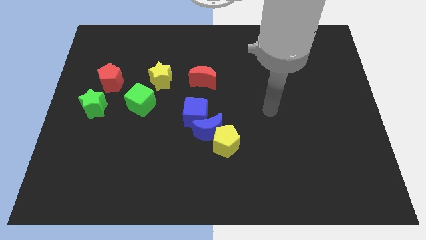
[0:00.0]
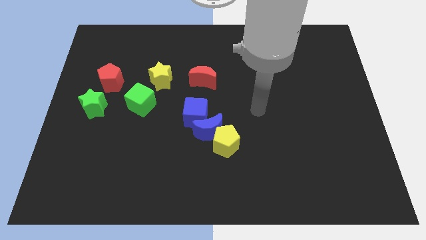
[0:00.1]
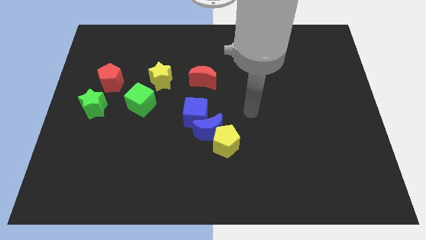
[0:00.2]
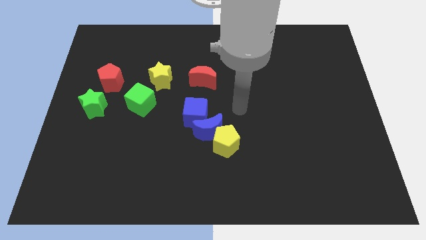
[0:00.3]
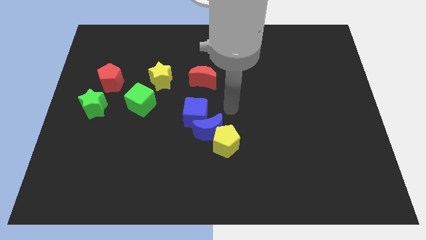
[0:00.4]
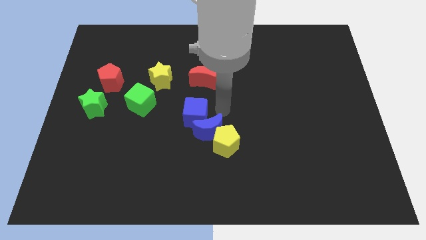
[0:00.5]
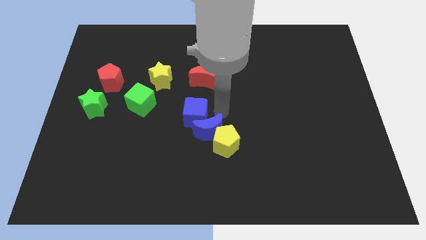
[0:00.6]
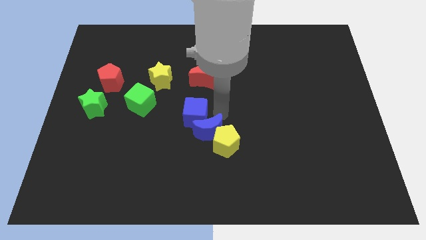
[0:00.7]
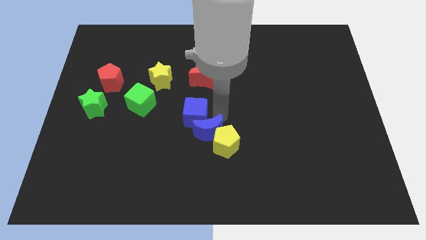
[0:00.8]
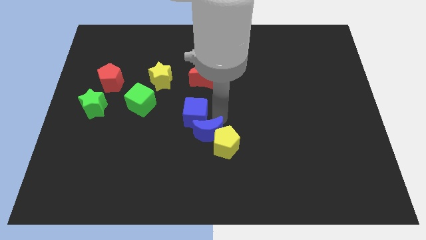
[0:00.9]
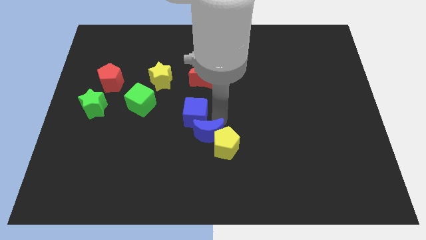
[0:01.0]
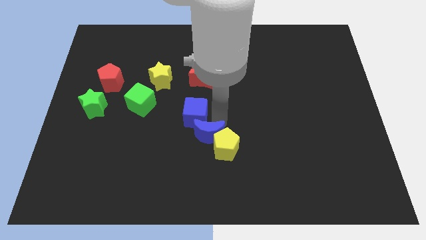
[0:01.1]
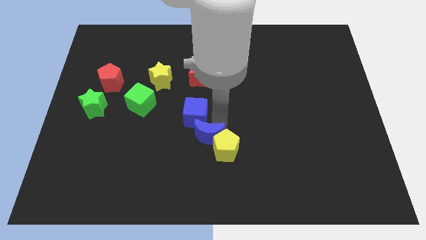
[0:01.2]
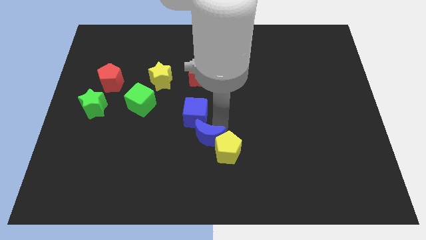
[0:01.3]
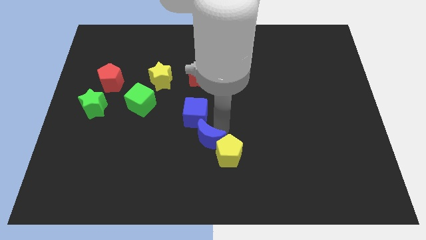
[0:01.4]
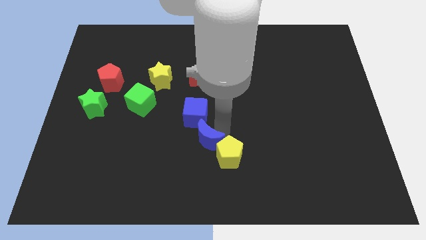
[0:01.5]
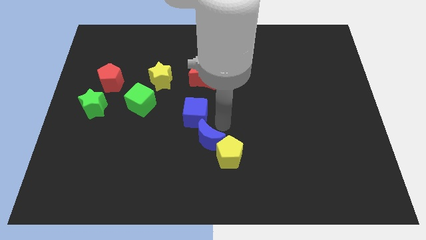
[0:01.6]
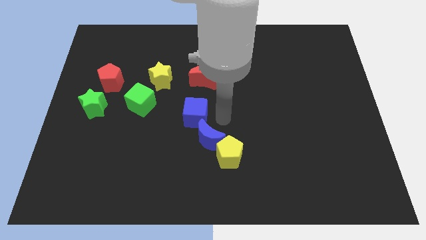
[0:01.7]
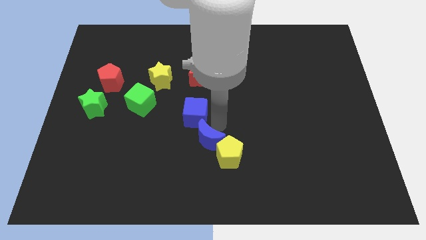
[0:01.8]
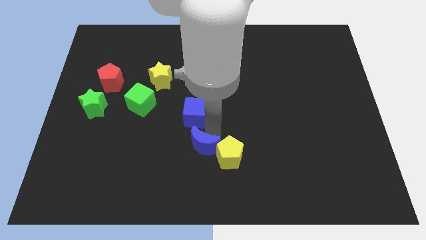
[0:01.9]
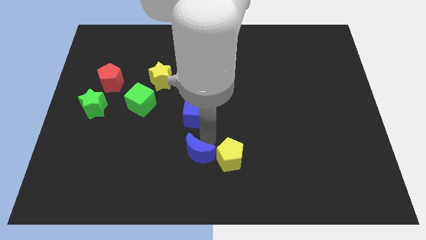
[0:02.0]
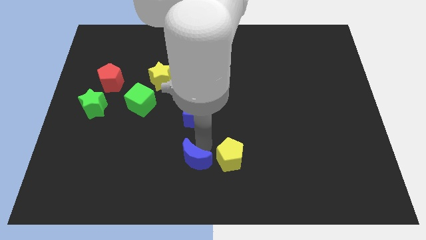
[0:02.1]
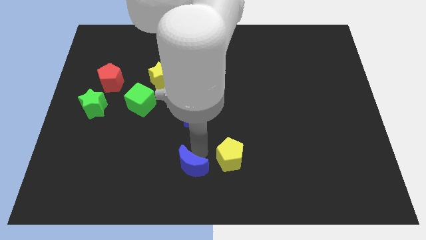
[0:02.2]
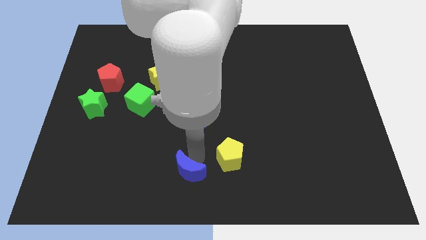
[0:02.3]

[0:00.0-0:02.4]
move the blue moon away from the yellow pentagon and blue cube

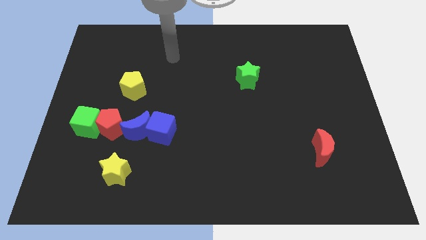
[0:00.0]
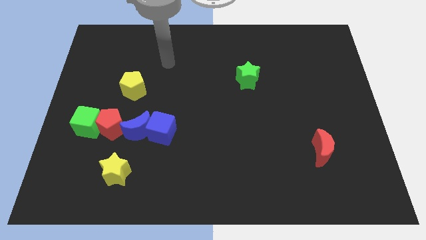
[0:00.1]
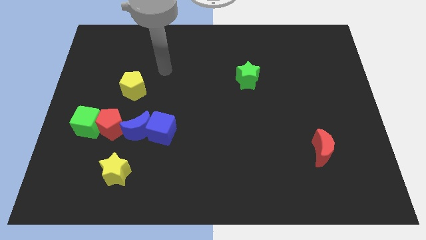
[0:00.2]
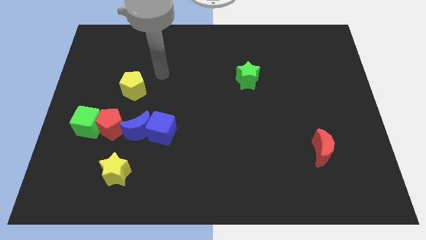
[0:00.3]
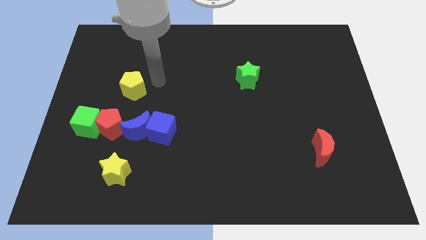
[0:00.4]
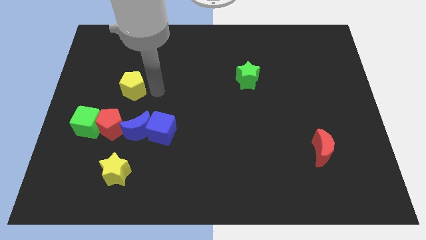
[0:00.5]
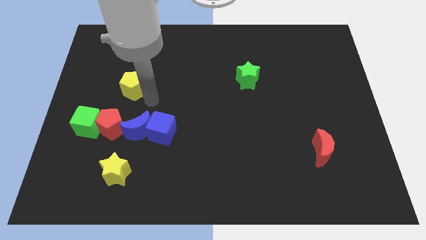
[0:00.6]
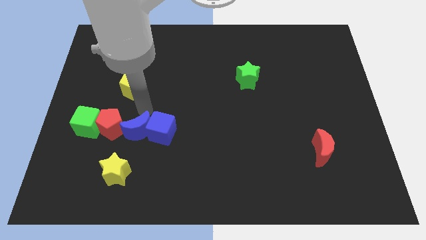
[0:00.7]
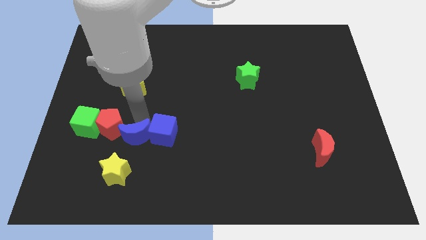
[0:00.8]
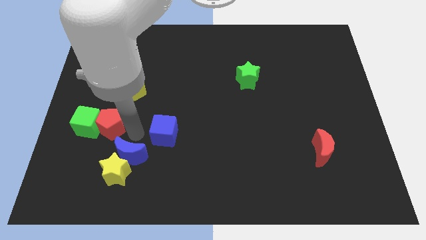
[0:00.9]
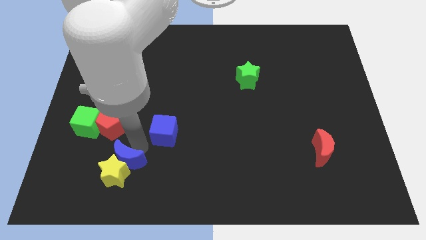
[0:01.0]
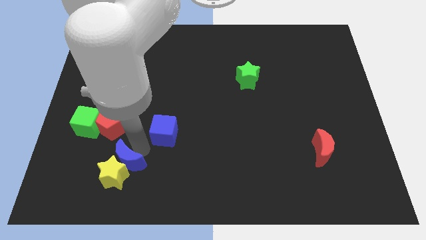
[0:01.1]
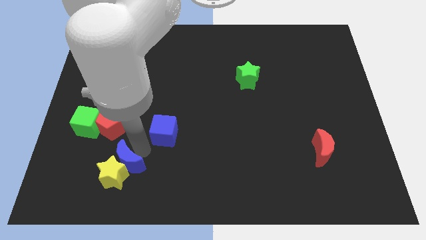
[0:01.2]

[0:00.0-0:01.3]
pull the blue cube apart from the blue moon

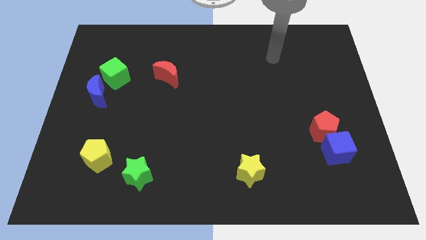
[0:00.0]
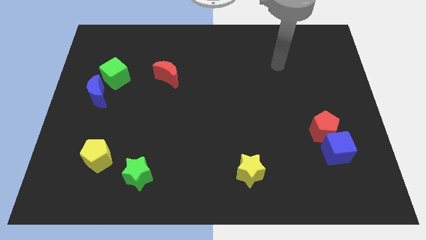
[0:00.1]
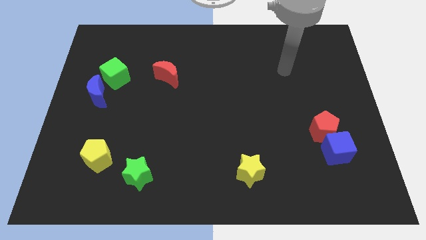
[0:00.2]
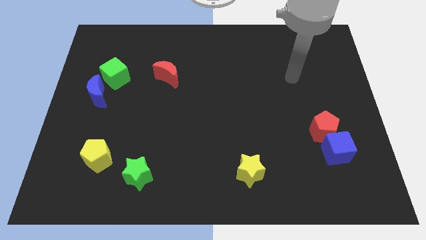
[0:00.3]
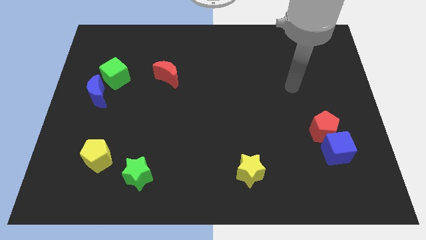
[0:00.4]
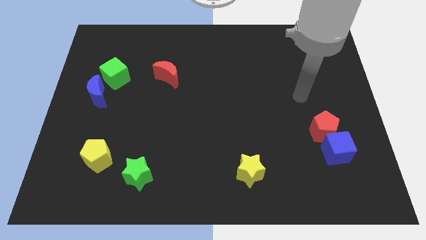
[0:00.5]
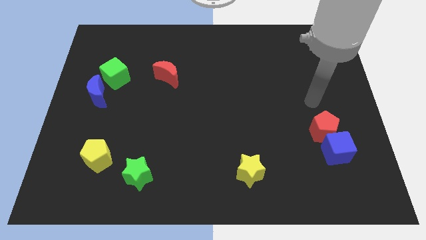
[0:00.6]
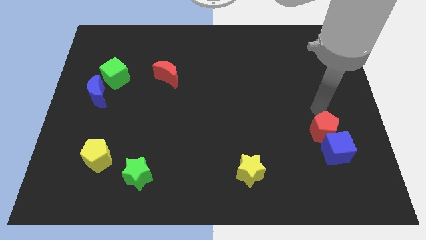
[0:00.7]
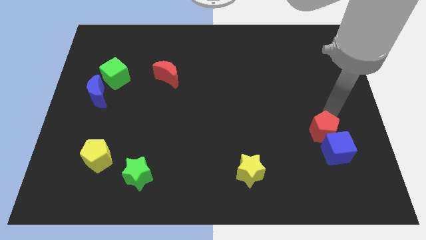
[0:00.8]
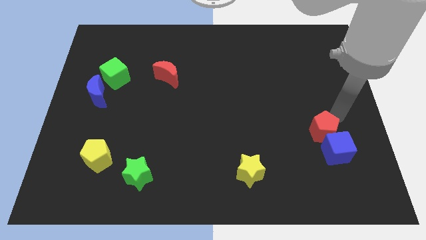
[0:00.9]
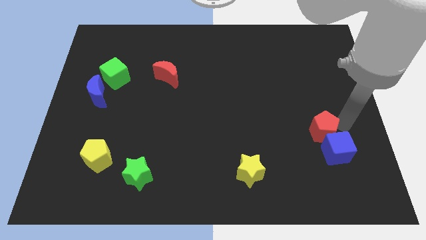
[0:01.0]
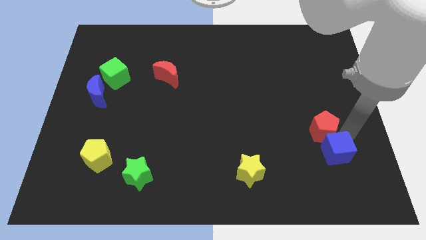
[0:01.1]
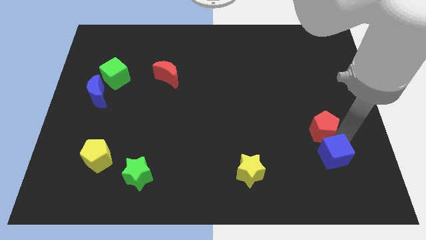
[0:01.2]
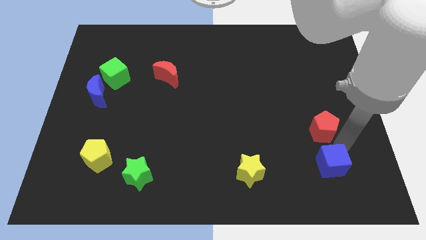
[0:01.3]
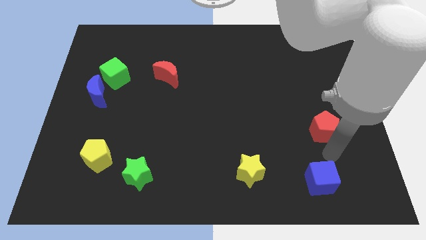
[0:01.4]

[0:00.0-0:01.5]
pull the red pentagon apart from the blue cube

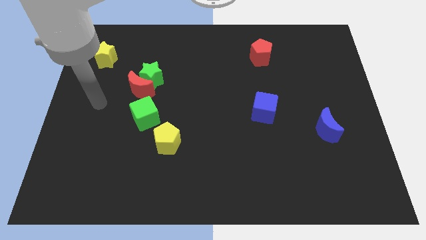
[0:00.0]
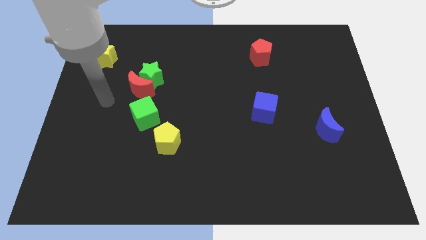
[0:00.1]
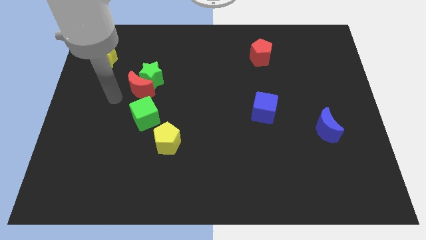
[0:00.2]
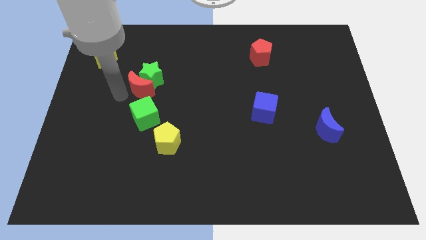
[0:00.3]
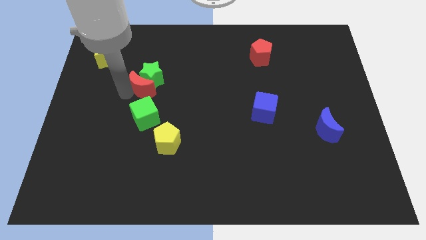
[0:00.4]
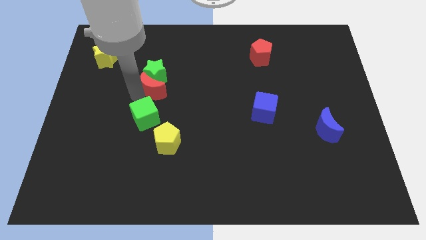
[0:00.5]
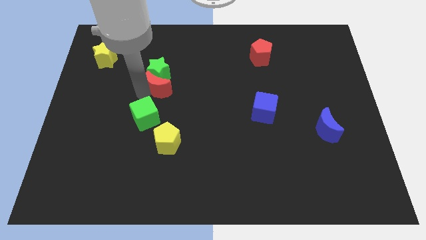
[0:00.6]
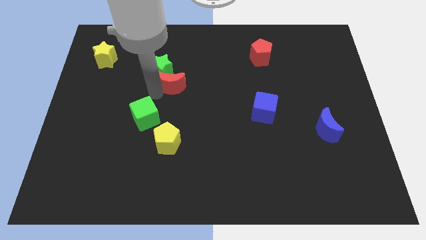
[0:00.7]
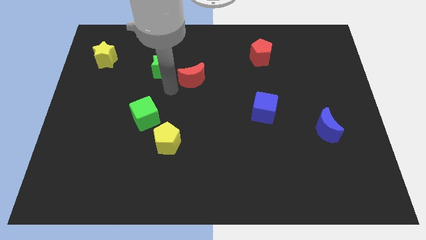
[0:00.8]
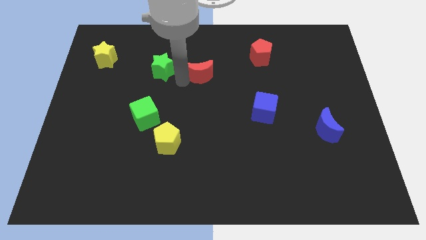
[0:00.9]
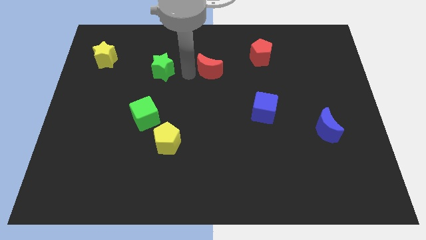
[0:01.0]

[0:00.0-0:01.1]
pull the green star apart from the red moon

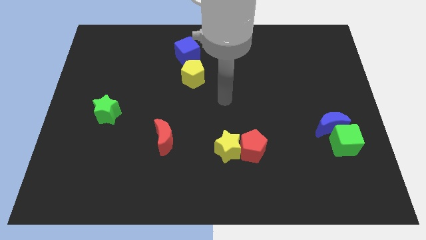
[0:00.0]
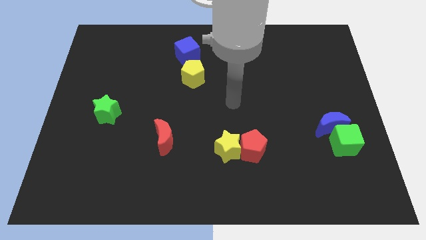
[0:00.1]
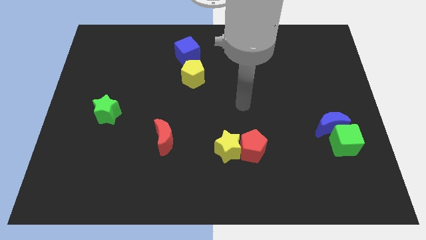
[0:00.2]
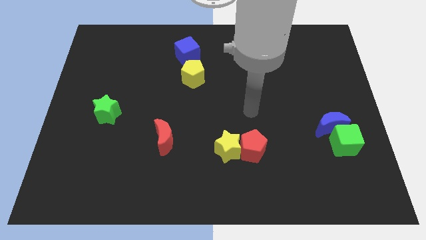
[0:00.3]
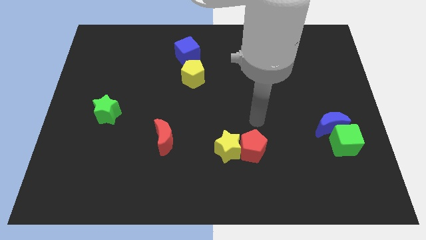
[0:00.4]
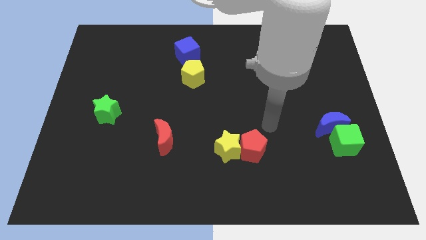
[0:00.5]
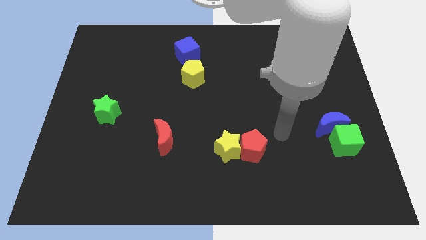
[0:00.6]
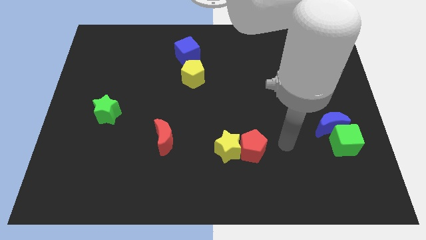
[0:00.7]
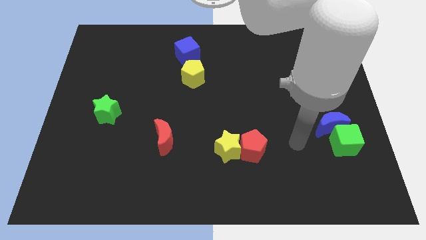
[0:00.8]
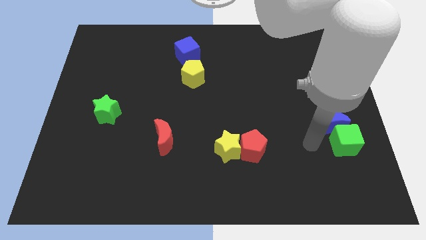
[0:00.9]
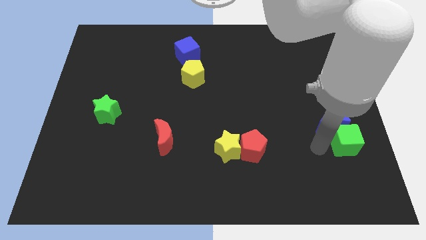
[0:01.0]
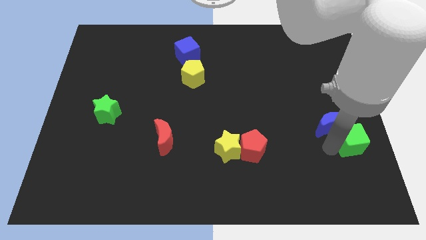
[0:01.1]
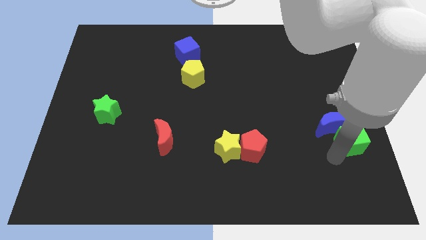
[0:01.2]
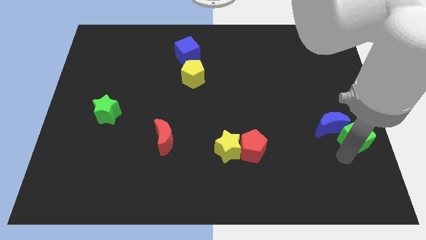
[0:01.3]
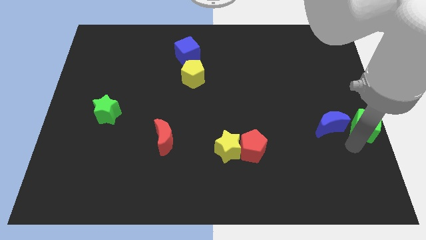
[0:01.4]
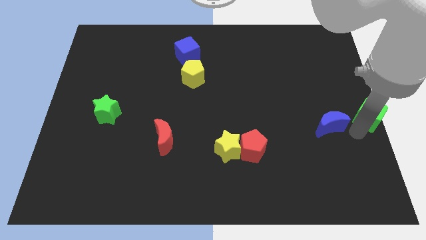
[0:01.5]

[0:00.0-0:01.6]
pull the blue moon apart from the green cube

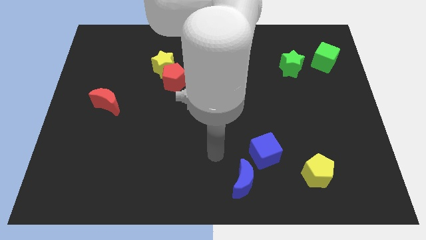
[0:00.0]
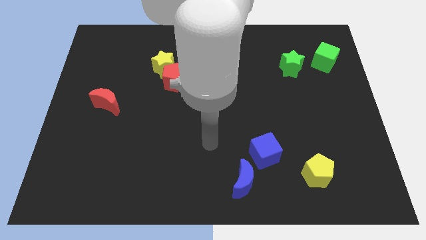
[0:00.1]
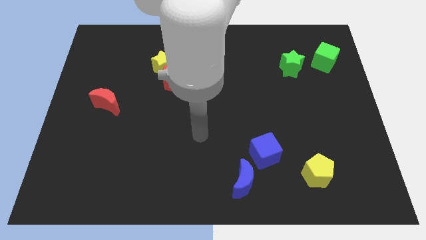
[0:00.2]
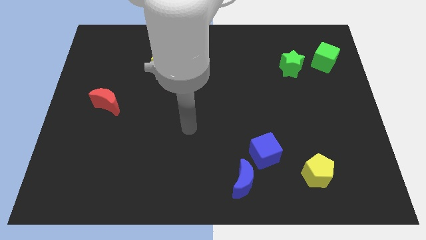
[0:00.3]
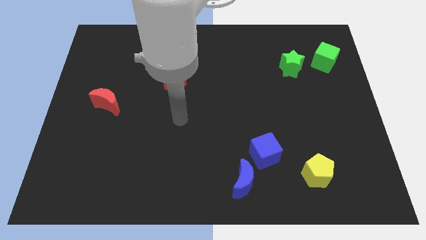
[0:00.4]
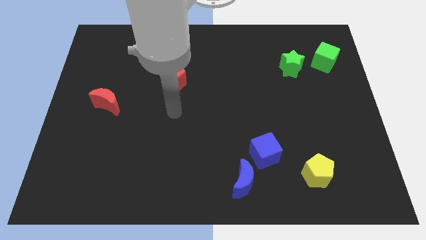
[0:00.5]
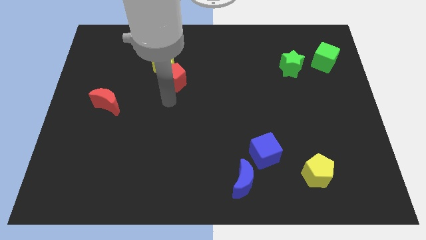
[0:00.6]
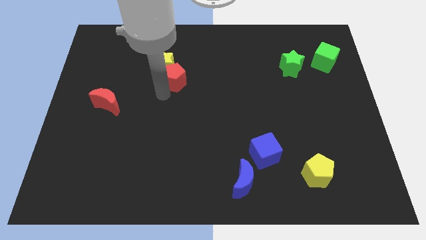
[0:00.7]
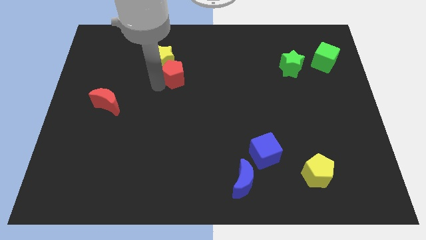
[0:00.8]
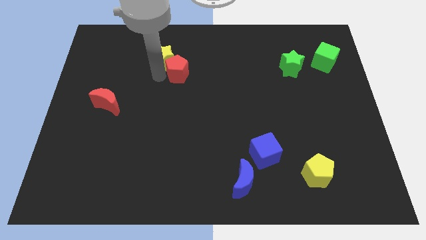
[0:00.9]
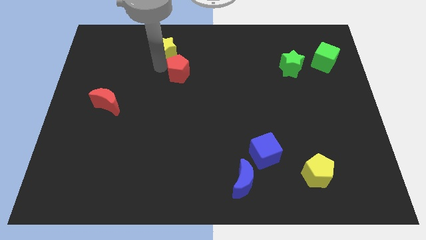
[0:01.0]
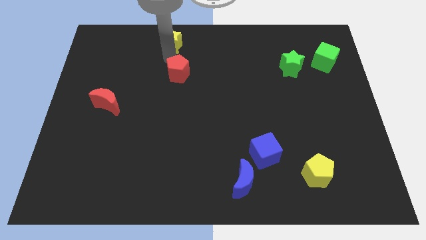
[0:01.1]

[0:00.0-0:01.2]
pull the red pentagon apart from the yellow star

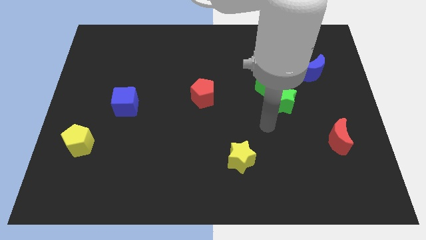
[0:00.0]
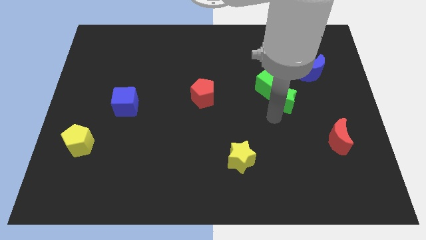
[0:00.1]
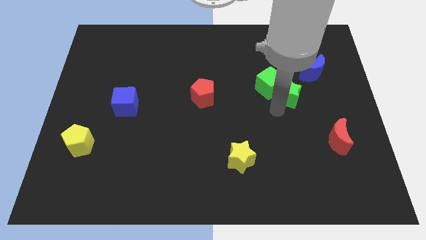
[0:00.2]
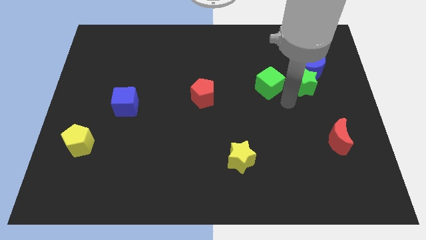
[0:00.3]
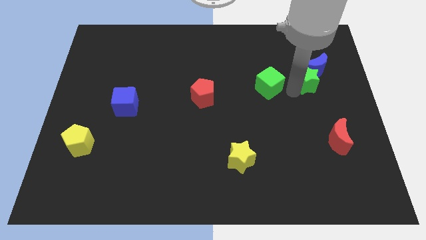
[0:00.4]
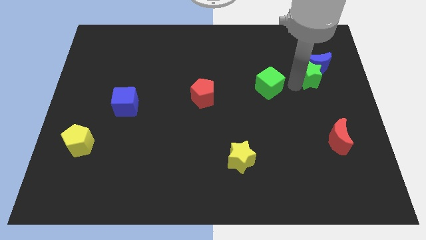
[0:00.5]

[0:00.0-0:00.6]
move the green cube away from the green star
